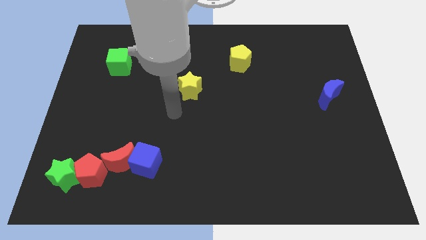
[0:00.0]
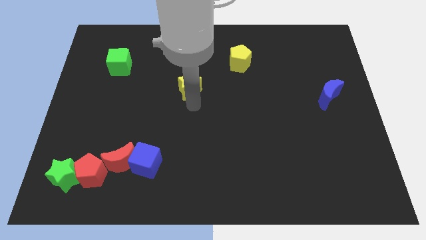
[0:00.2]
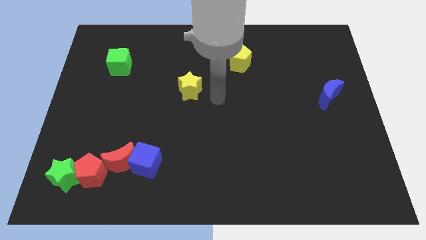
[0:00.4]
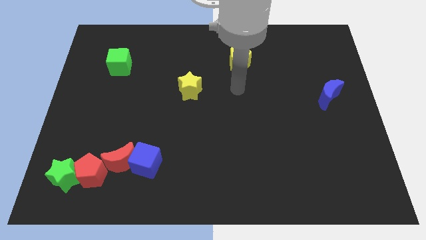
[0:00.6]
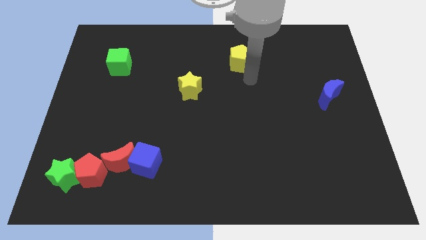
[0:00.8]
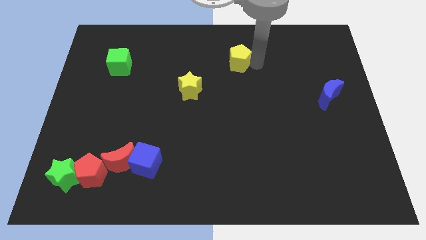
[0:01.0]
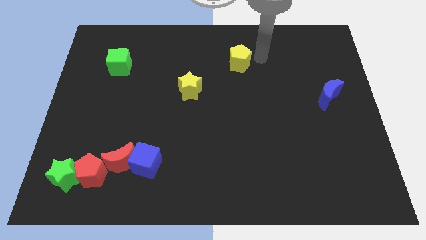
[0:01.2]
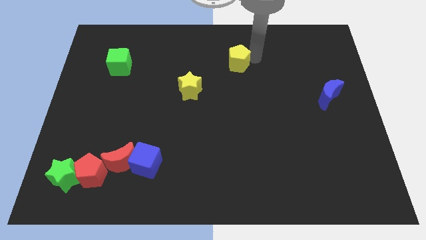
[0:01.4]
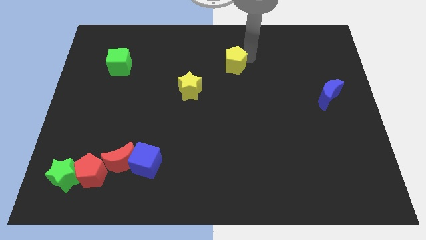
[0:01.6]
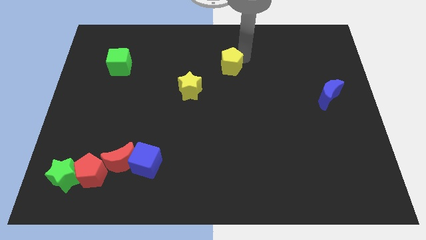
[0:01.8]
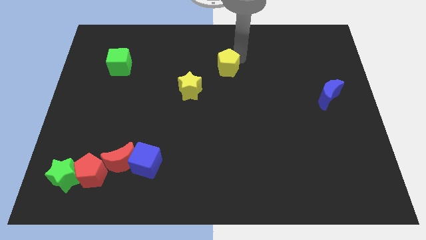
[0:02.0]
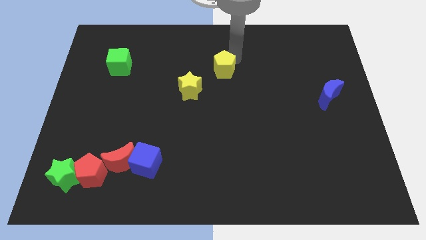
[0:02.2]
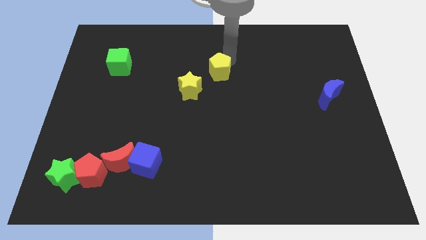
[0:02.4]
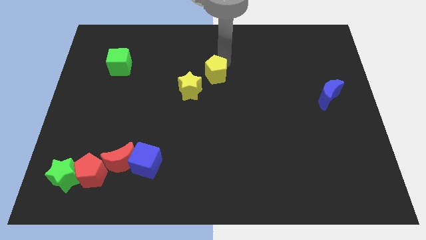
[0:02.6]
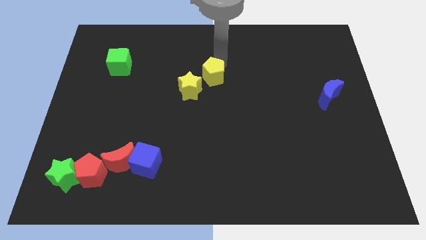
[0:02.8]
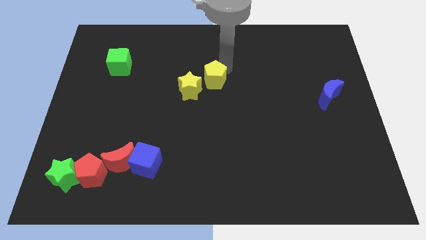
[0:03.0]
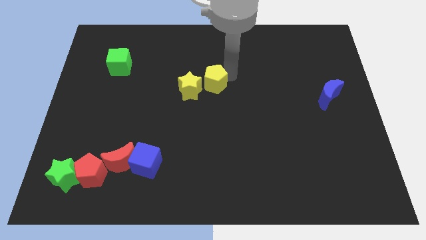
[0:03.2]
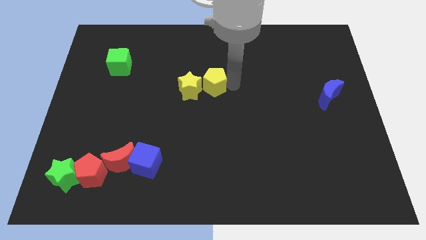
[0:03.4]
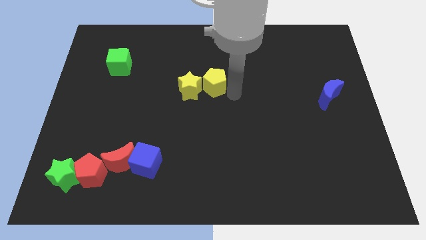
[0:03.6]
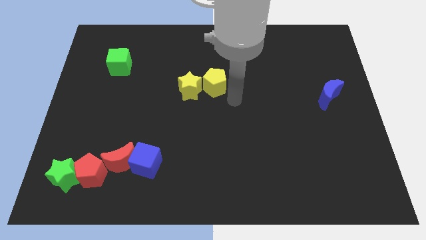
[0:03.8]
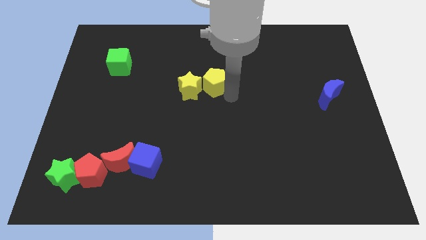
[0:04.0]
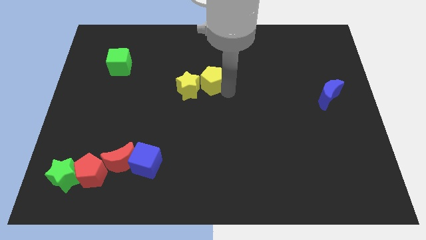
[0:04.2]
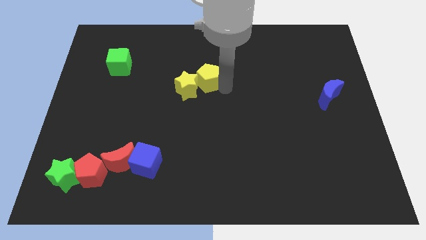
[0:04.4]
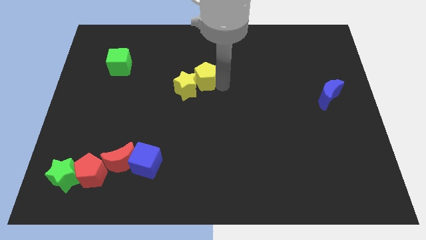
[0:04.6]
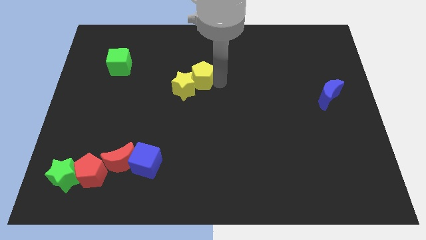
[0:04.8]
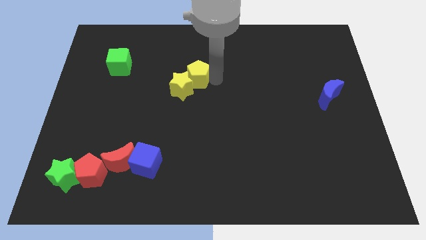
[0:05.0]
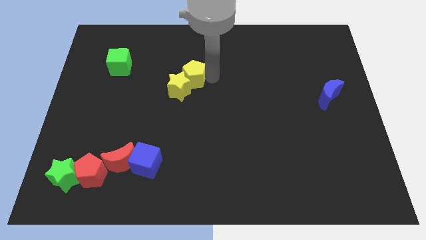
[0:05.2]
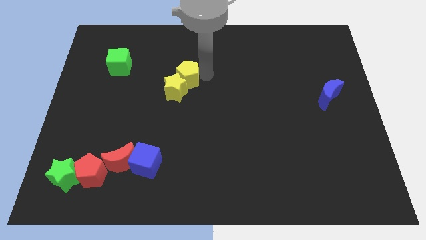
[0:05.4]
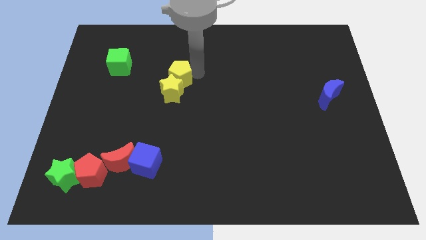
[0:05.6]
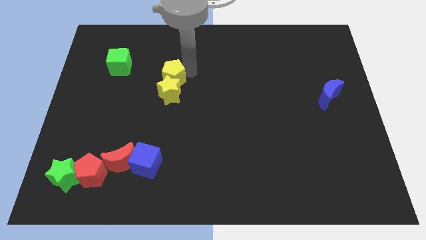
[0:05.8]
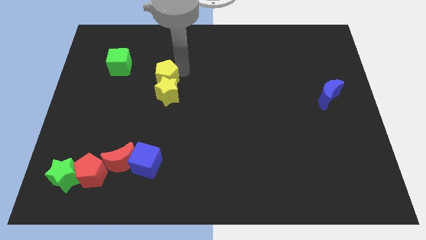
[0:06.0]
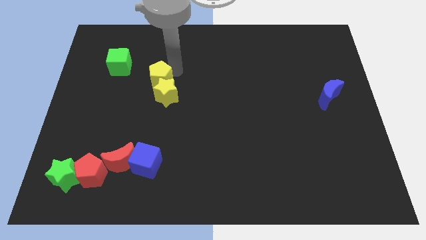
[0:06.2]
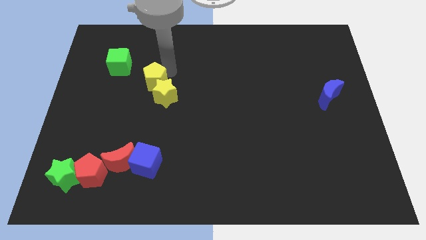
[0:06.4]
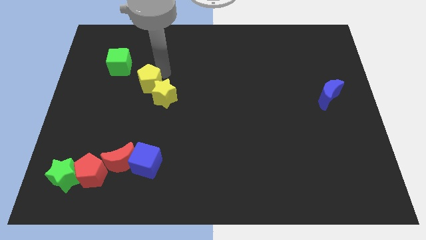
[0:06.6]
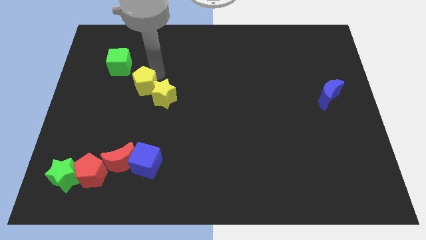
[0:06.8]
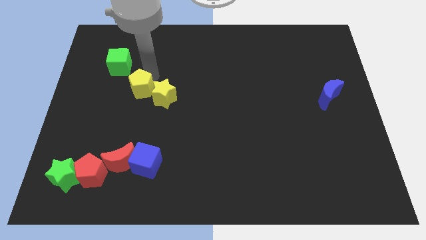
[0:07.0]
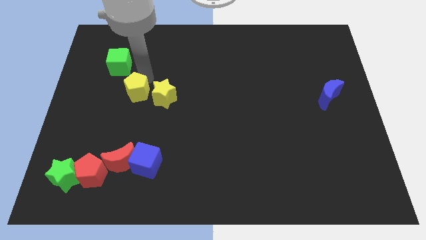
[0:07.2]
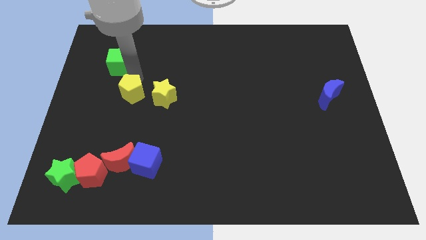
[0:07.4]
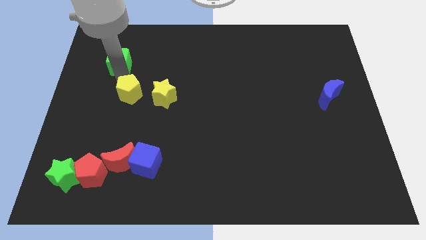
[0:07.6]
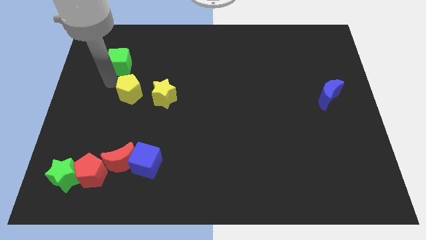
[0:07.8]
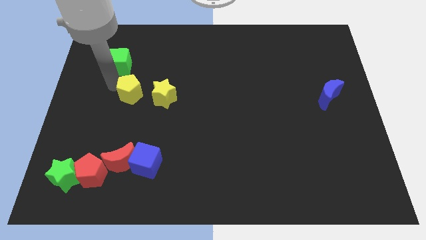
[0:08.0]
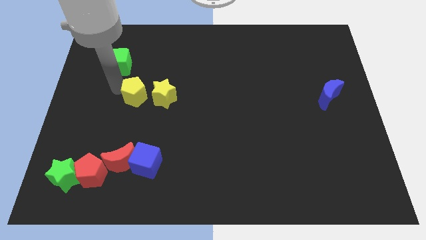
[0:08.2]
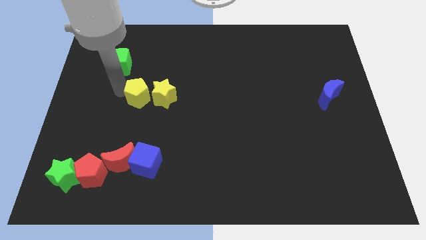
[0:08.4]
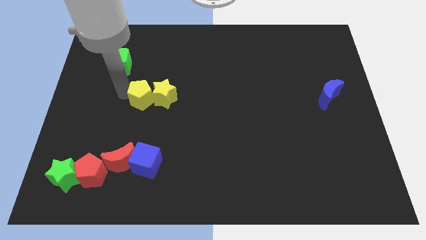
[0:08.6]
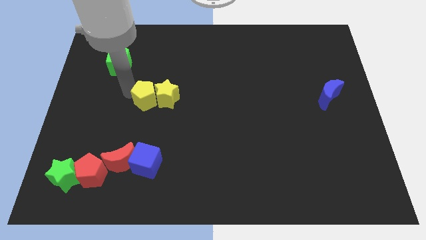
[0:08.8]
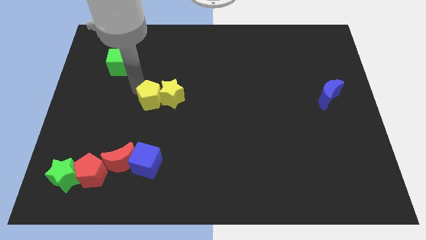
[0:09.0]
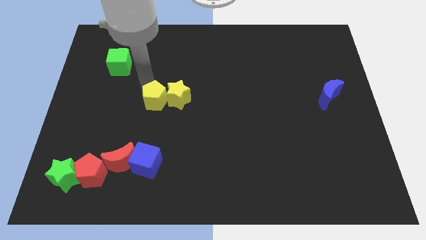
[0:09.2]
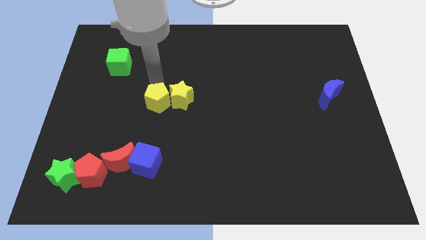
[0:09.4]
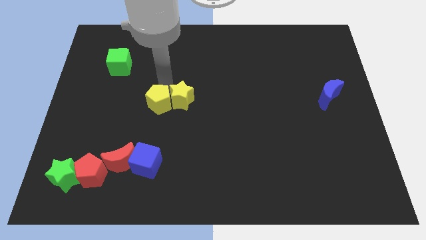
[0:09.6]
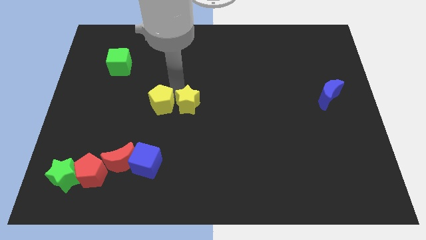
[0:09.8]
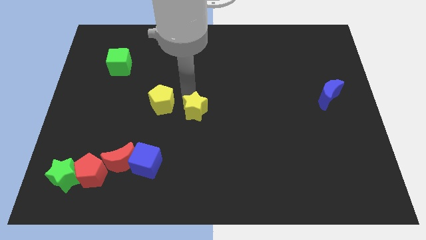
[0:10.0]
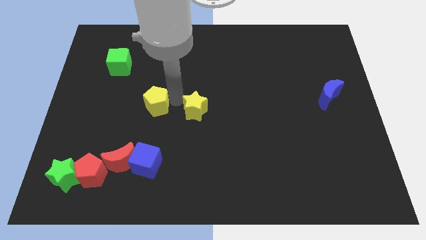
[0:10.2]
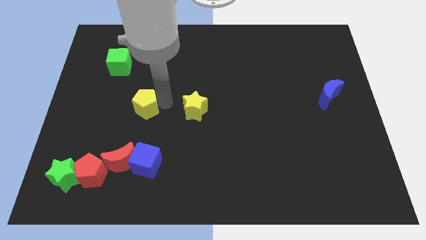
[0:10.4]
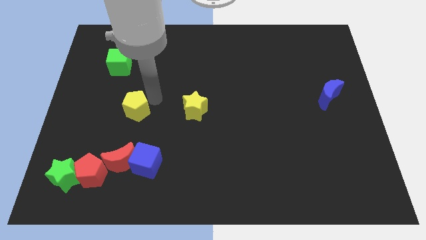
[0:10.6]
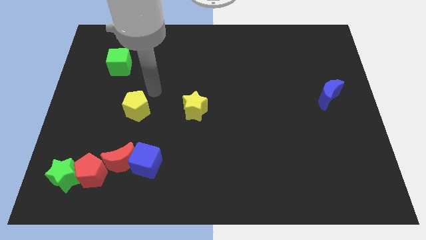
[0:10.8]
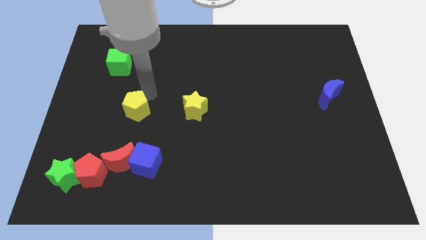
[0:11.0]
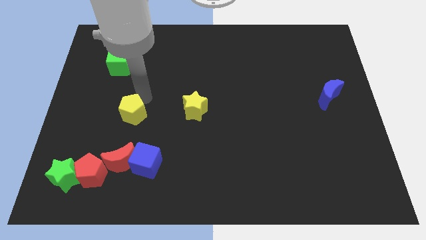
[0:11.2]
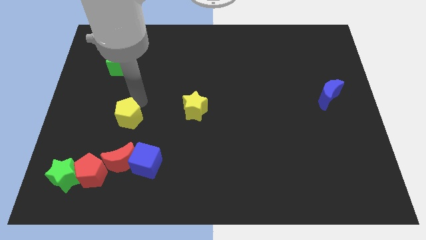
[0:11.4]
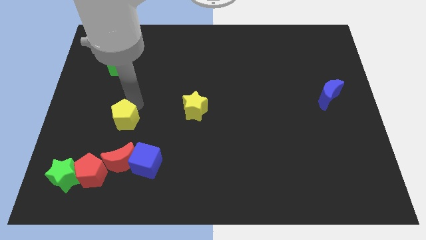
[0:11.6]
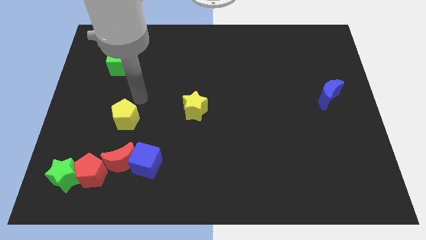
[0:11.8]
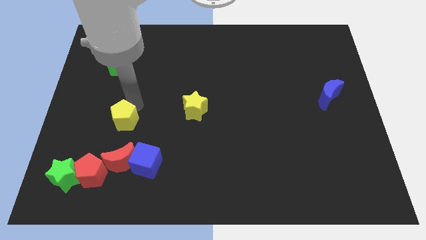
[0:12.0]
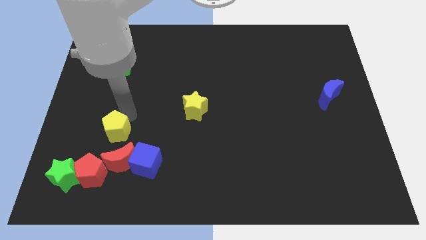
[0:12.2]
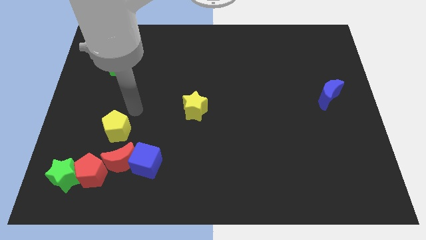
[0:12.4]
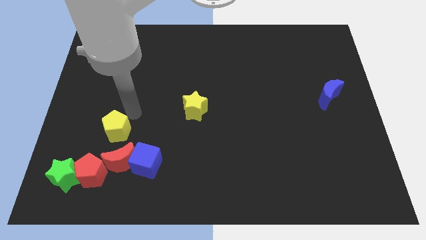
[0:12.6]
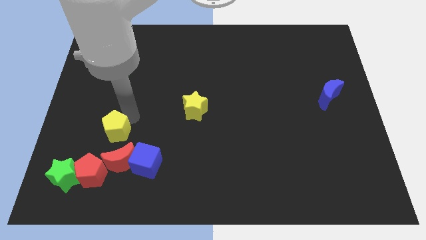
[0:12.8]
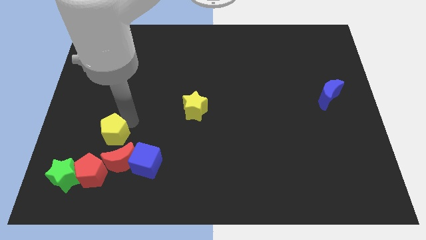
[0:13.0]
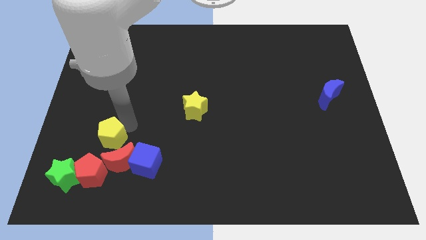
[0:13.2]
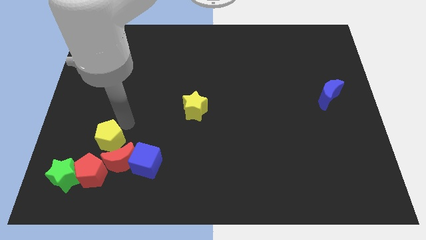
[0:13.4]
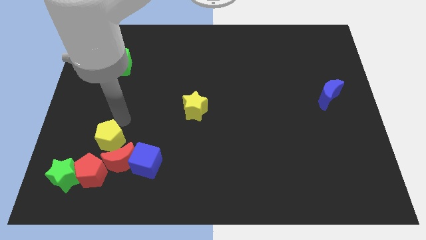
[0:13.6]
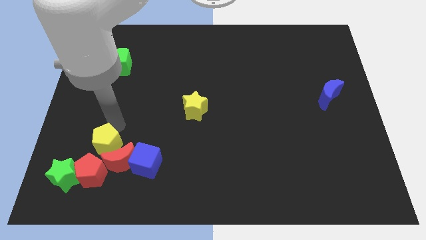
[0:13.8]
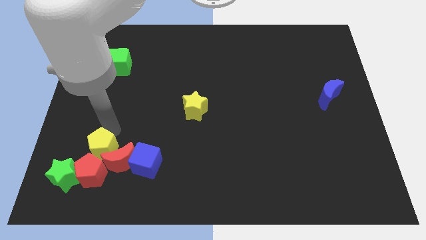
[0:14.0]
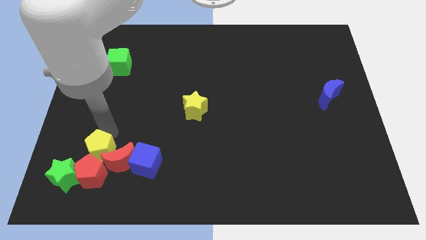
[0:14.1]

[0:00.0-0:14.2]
push the yellow pentagon next to the red pentagon
